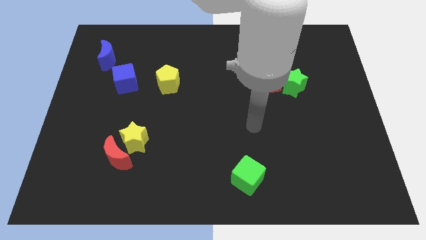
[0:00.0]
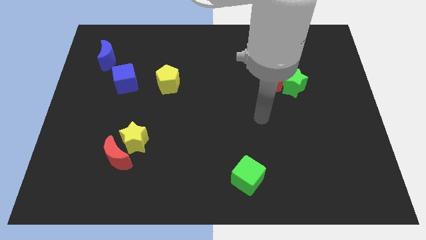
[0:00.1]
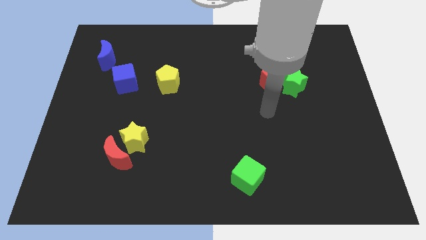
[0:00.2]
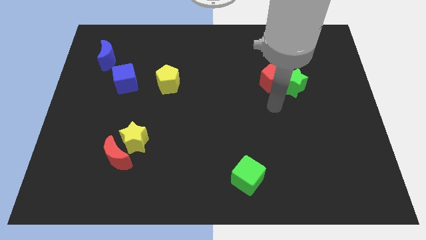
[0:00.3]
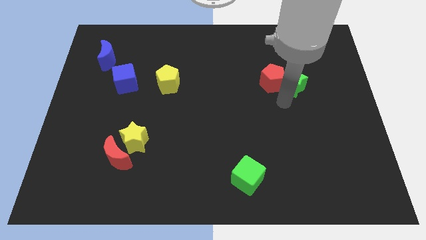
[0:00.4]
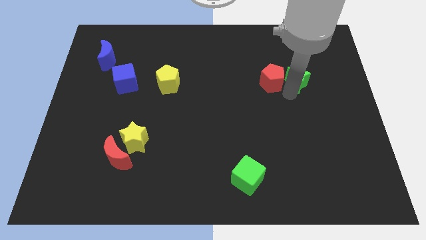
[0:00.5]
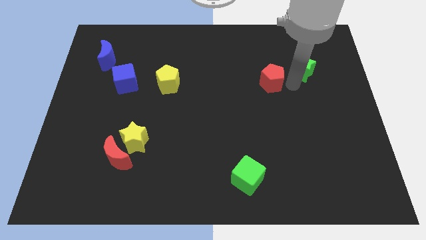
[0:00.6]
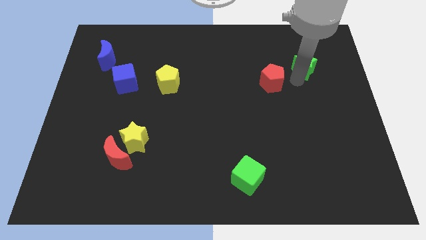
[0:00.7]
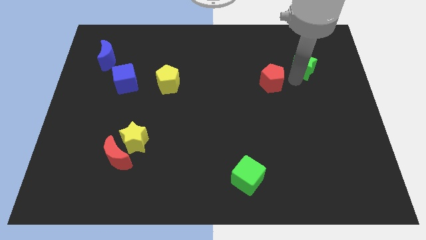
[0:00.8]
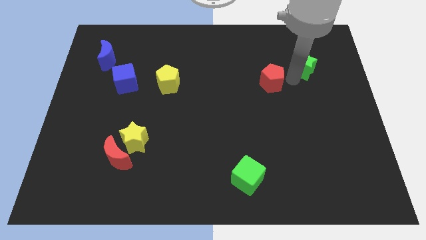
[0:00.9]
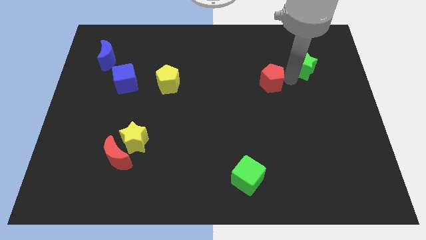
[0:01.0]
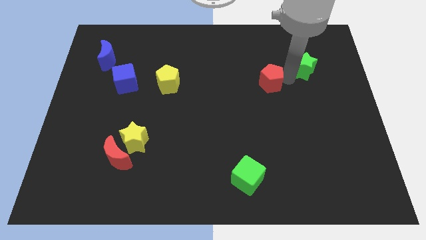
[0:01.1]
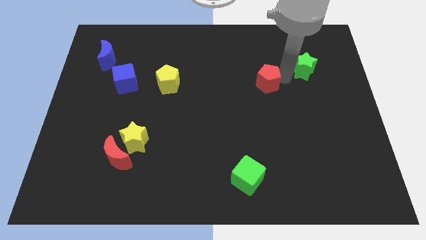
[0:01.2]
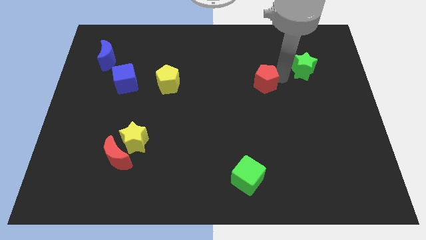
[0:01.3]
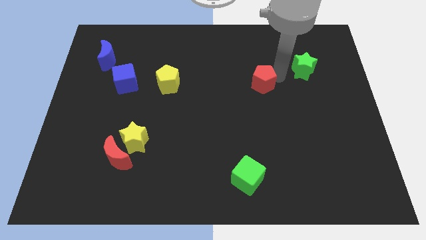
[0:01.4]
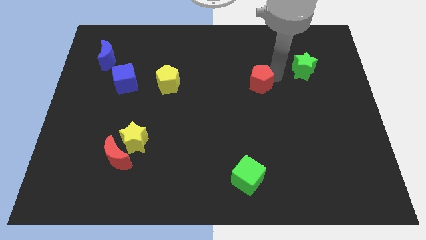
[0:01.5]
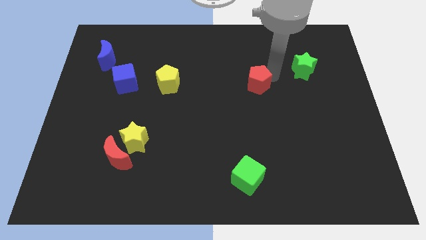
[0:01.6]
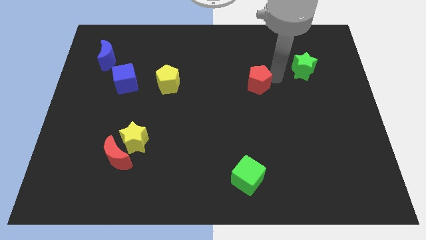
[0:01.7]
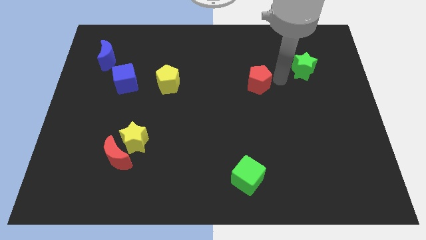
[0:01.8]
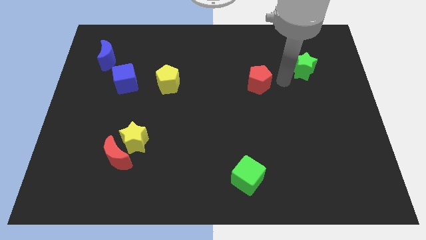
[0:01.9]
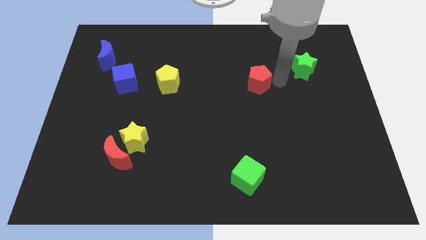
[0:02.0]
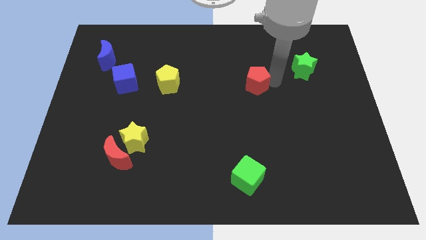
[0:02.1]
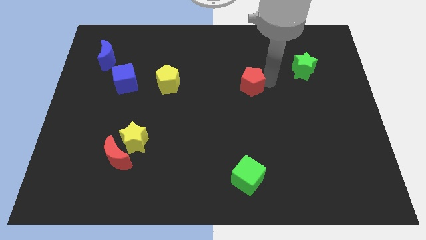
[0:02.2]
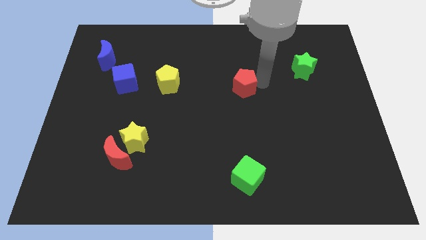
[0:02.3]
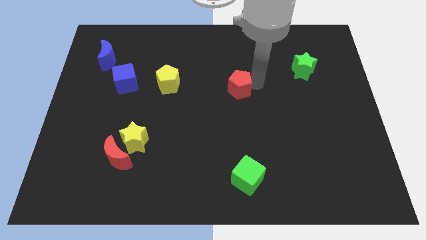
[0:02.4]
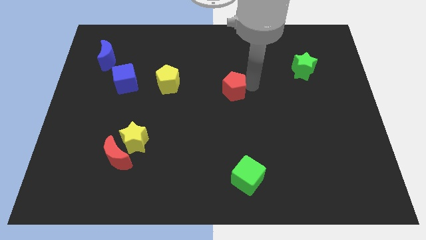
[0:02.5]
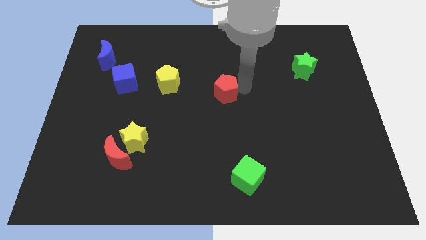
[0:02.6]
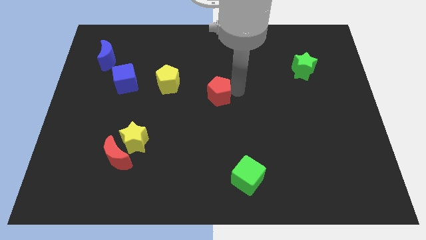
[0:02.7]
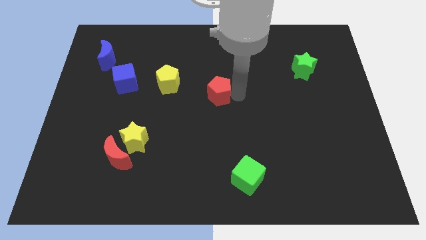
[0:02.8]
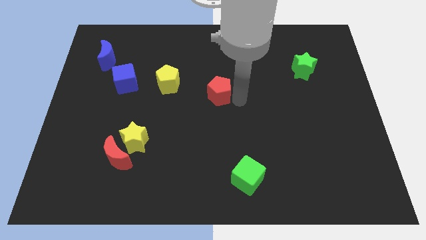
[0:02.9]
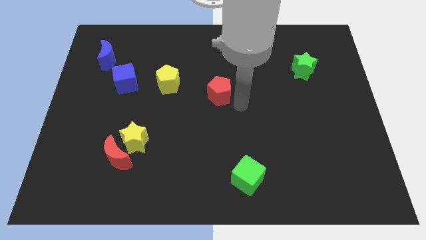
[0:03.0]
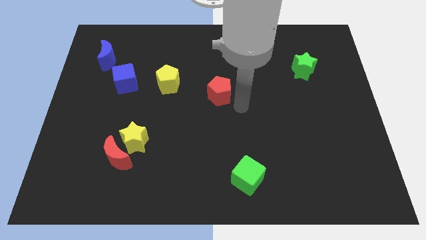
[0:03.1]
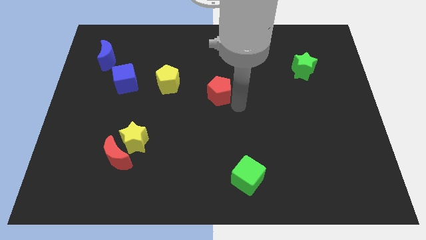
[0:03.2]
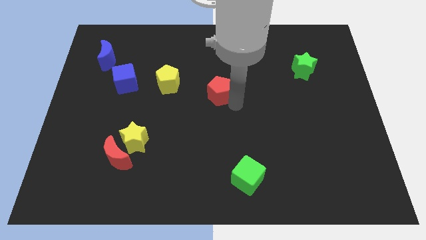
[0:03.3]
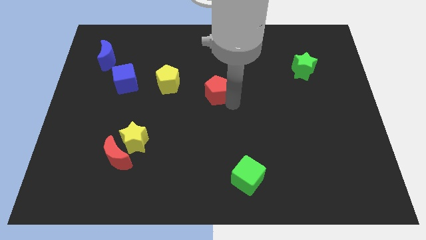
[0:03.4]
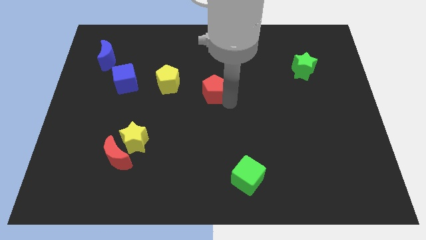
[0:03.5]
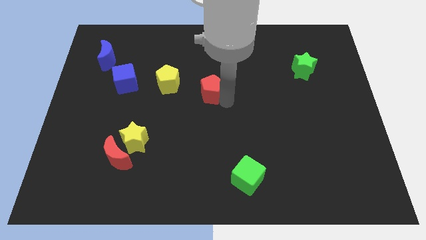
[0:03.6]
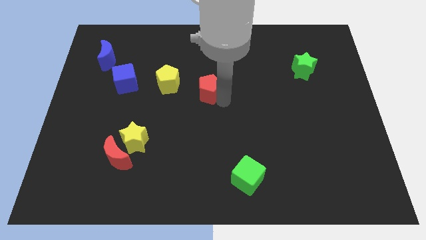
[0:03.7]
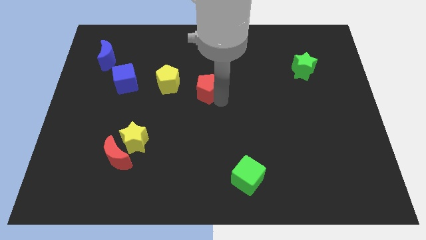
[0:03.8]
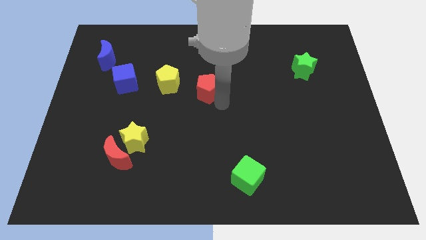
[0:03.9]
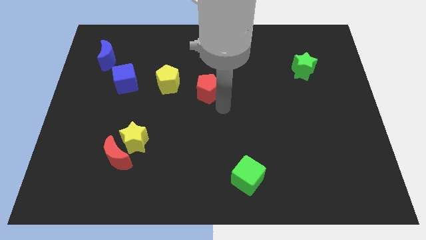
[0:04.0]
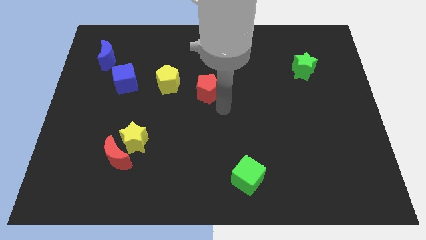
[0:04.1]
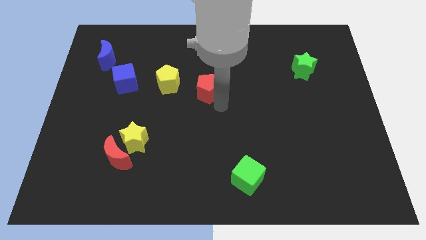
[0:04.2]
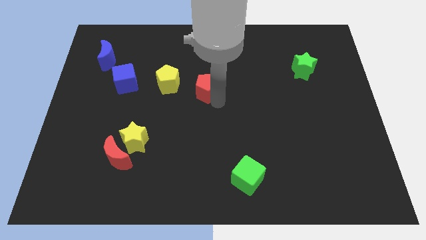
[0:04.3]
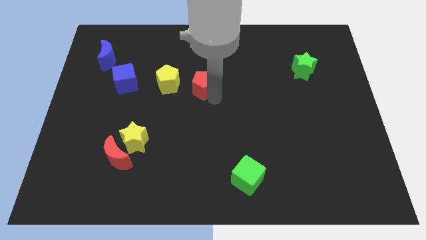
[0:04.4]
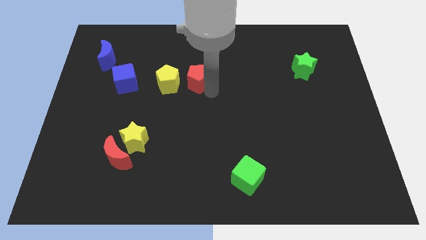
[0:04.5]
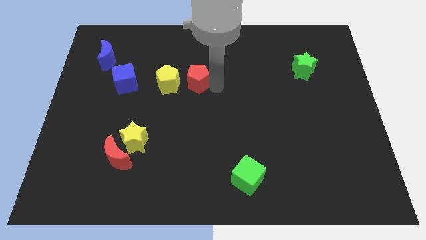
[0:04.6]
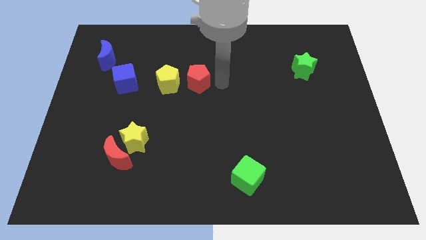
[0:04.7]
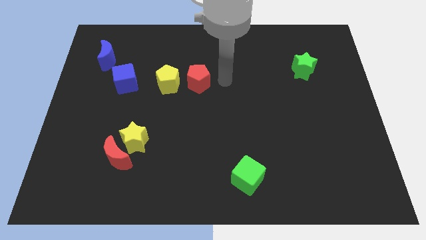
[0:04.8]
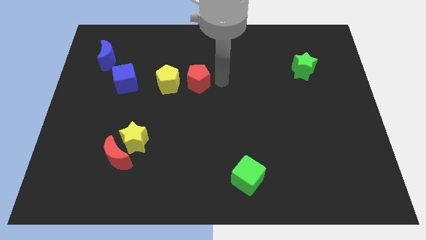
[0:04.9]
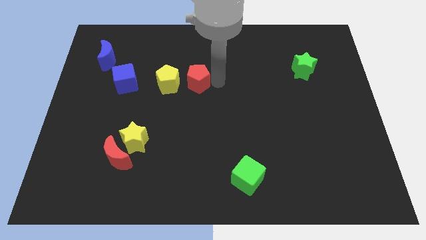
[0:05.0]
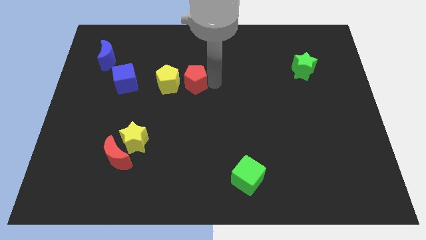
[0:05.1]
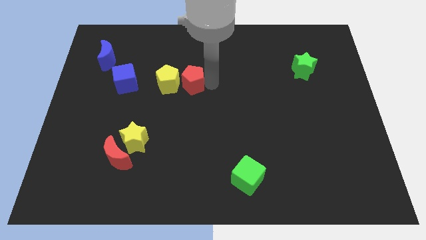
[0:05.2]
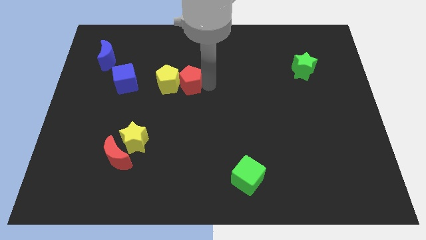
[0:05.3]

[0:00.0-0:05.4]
put the red pentagon to the right of the blue cube

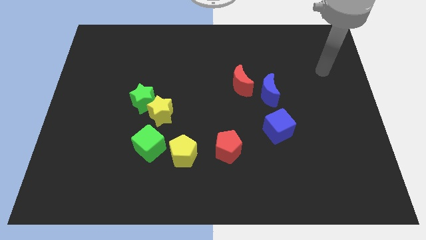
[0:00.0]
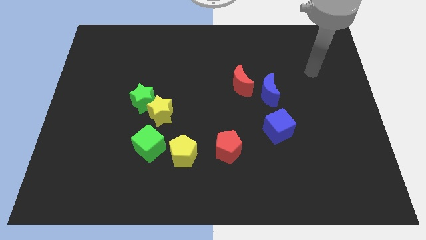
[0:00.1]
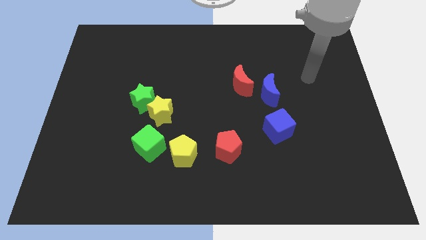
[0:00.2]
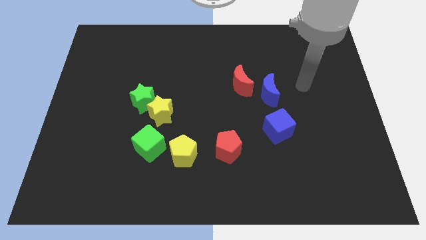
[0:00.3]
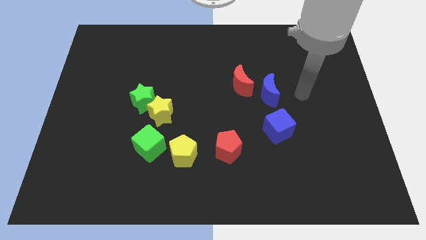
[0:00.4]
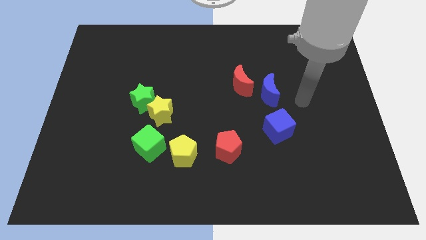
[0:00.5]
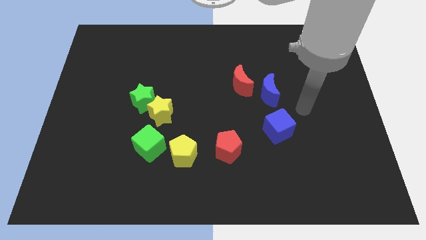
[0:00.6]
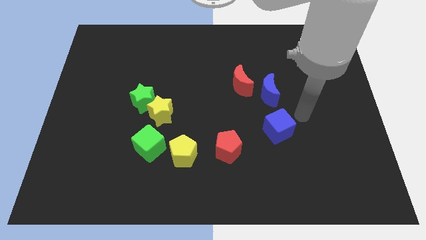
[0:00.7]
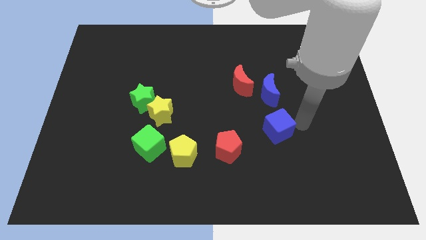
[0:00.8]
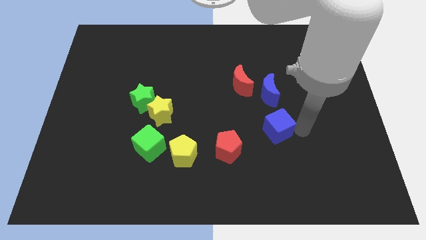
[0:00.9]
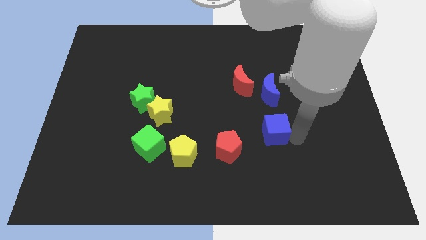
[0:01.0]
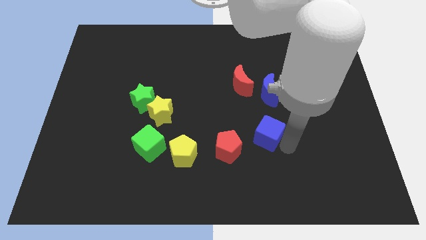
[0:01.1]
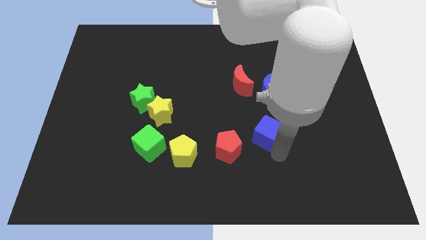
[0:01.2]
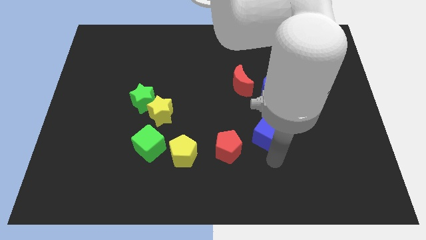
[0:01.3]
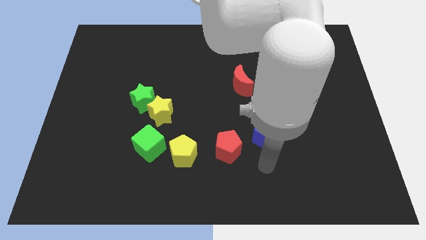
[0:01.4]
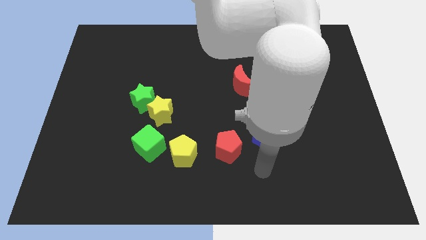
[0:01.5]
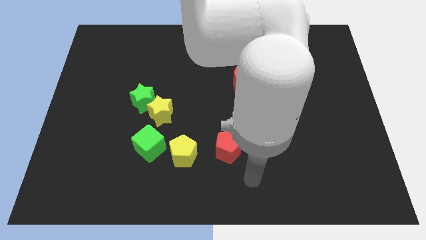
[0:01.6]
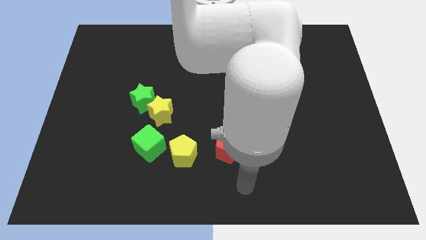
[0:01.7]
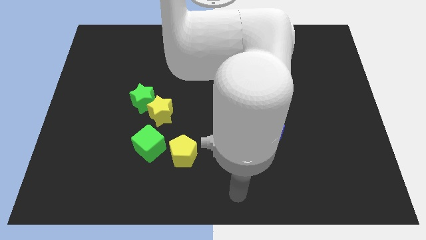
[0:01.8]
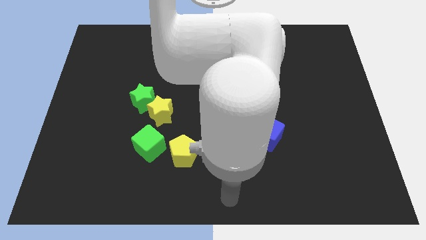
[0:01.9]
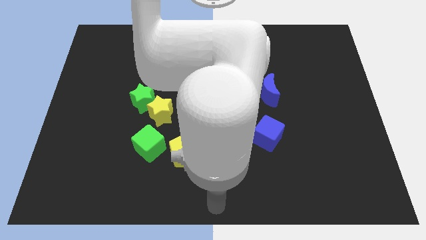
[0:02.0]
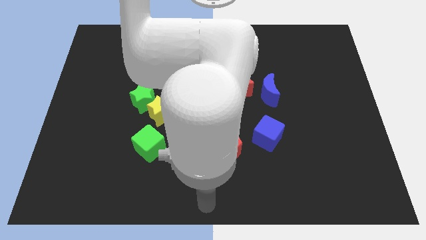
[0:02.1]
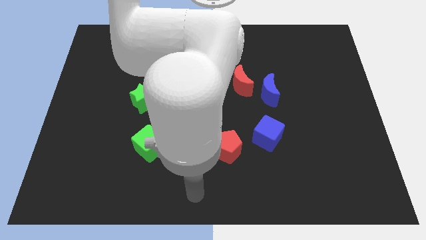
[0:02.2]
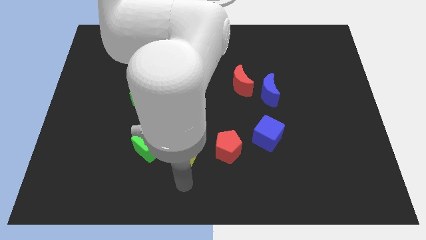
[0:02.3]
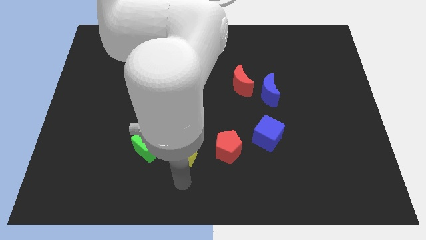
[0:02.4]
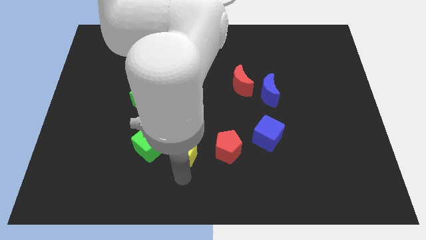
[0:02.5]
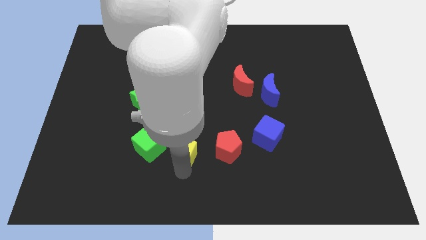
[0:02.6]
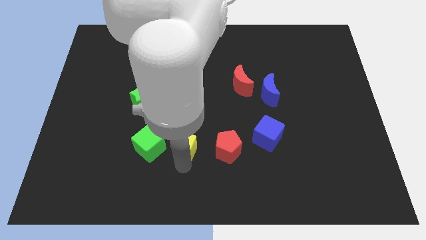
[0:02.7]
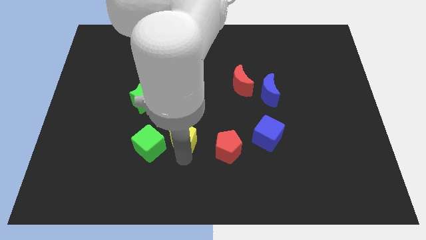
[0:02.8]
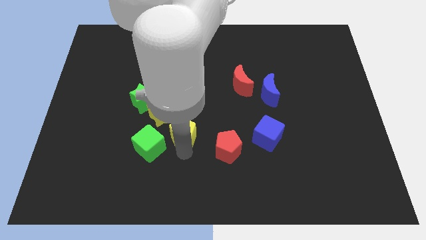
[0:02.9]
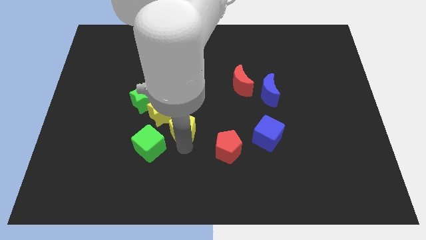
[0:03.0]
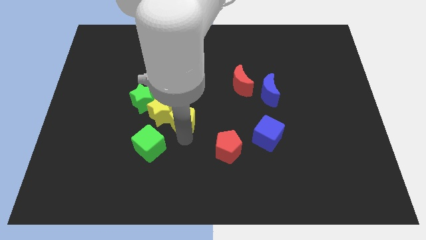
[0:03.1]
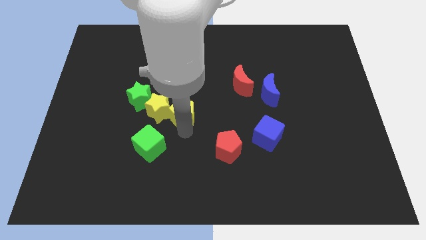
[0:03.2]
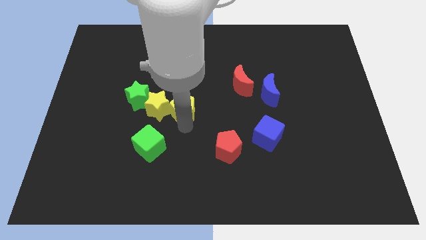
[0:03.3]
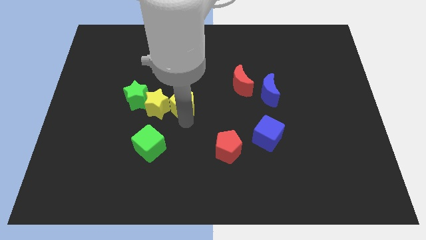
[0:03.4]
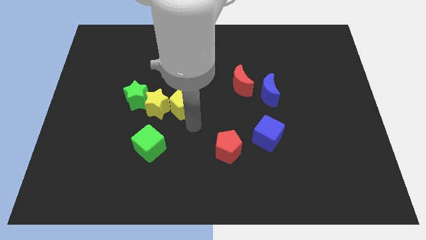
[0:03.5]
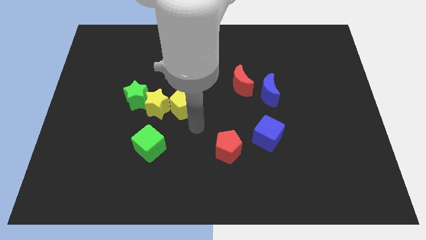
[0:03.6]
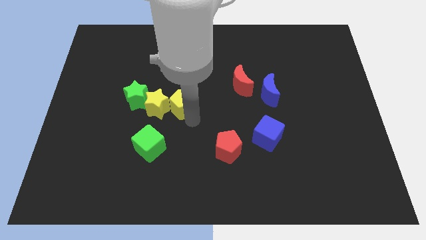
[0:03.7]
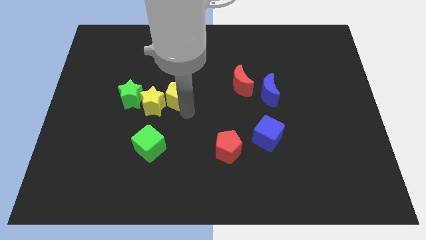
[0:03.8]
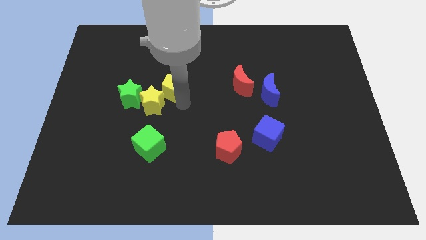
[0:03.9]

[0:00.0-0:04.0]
move the yellow pentagon to the top of the yellow star
